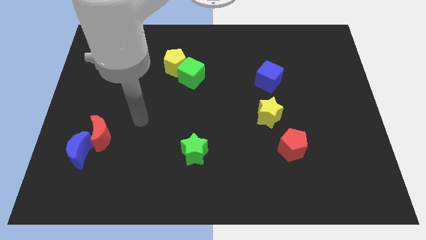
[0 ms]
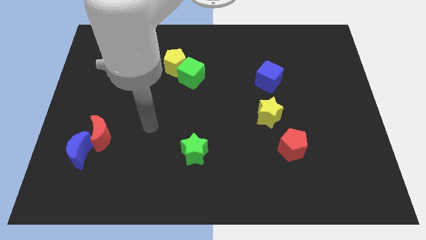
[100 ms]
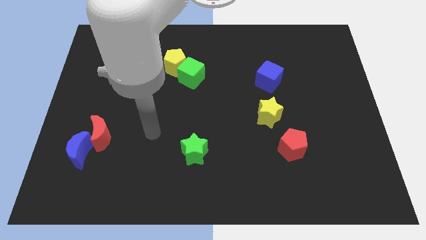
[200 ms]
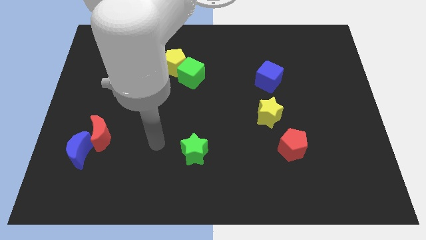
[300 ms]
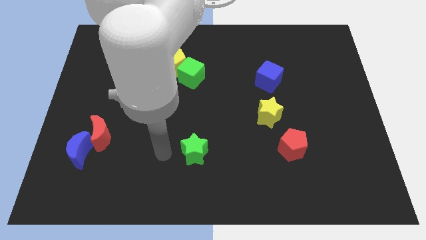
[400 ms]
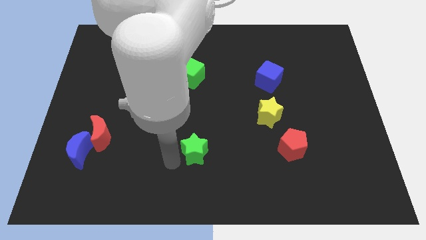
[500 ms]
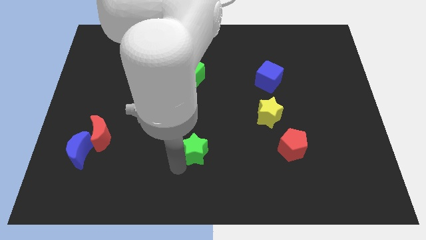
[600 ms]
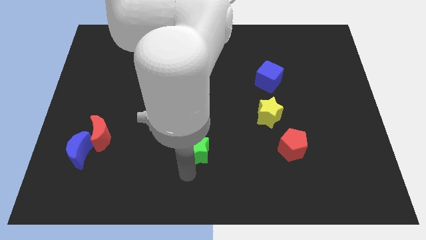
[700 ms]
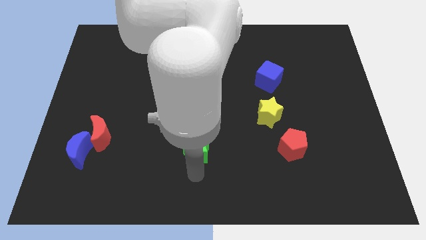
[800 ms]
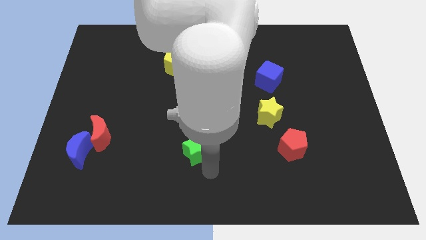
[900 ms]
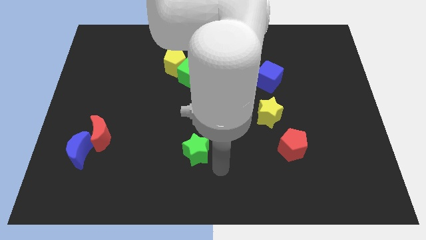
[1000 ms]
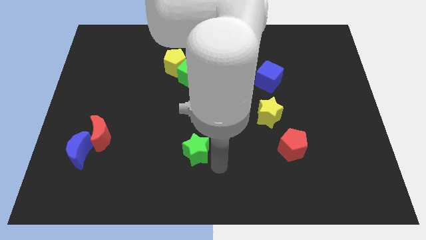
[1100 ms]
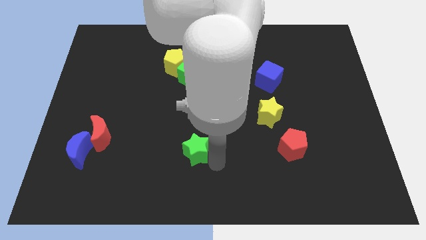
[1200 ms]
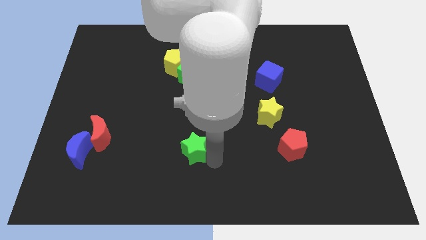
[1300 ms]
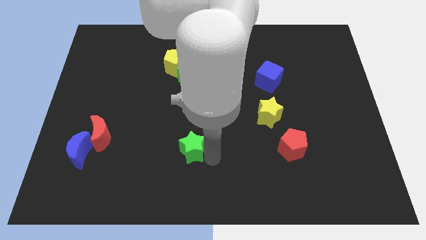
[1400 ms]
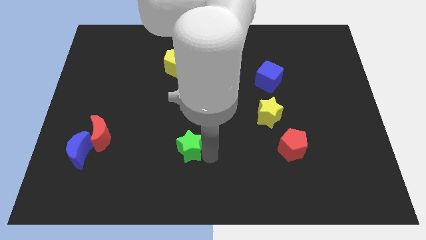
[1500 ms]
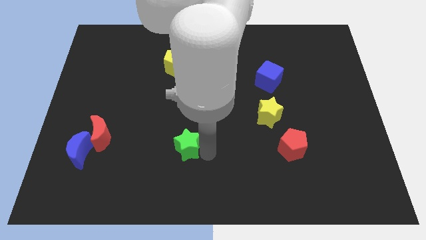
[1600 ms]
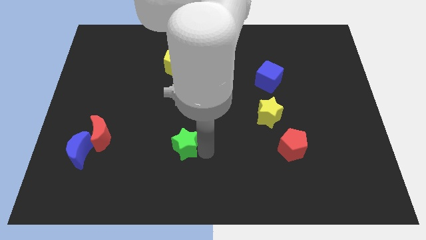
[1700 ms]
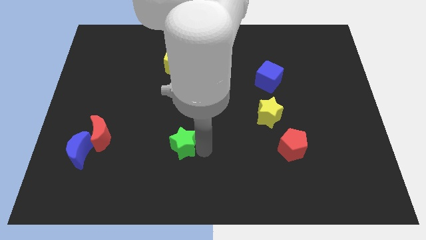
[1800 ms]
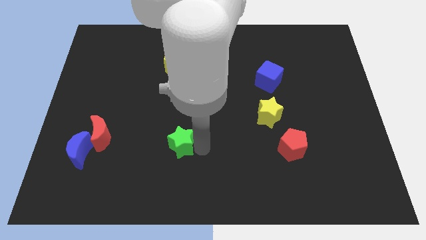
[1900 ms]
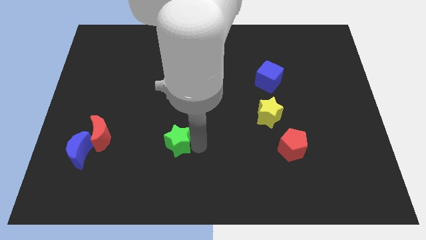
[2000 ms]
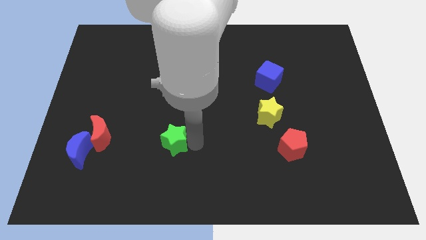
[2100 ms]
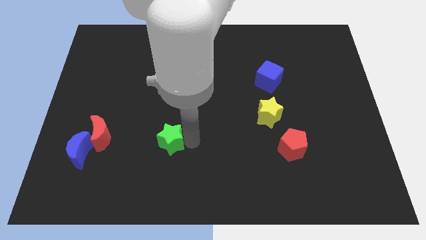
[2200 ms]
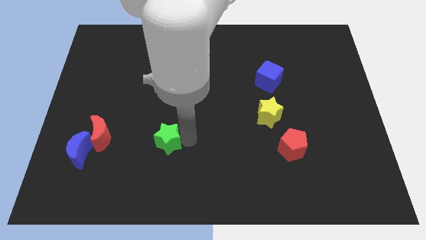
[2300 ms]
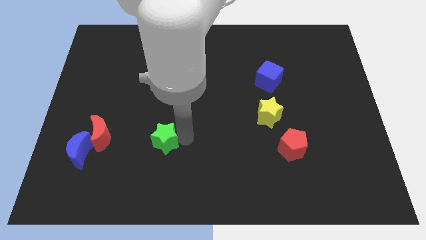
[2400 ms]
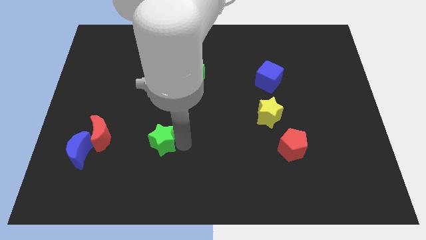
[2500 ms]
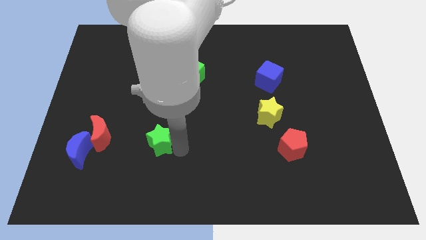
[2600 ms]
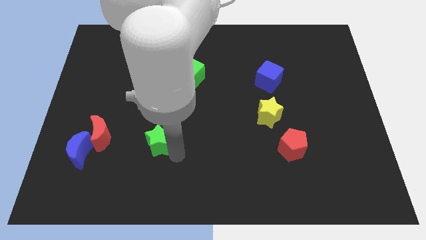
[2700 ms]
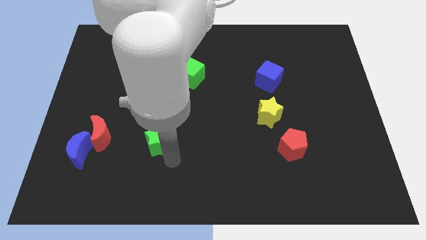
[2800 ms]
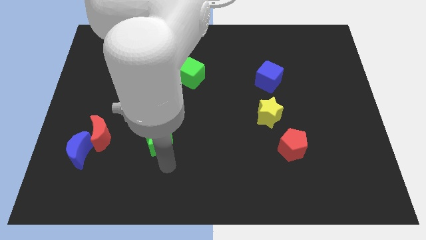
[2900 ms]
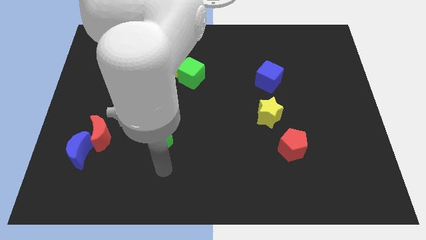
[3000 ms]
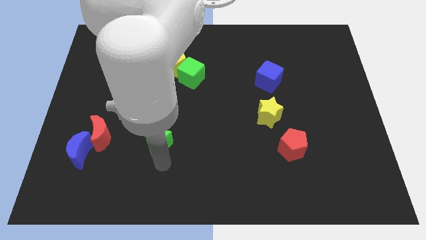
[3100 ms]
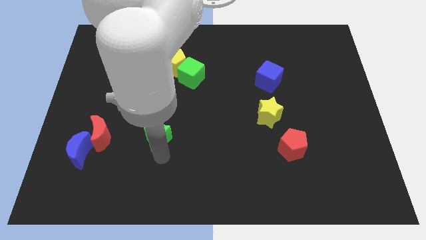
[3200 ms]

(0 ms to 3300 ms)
slide the green star a bit upwards and left

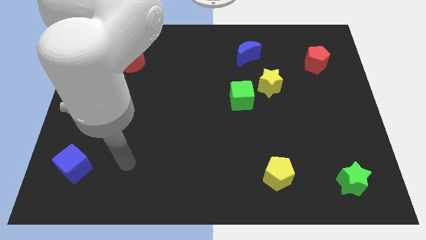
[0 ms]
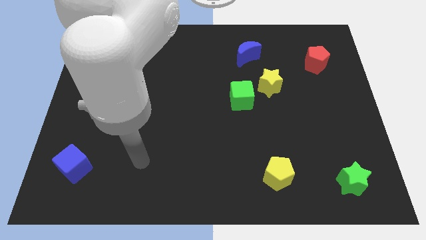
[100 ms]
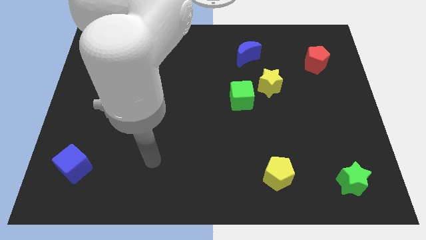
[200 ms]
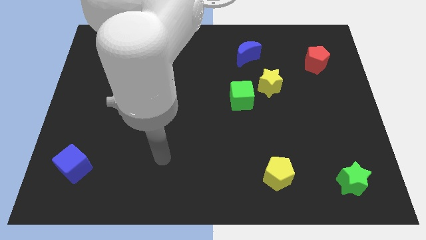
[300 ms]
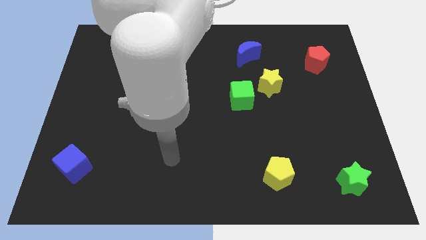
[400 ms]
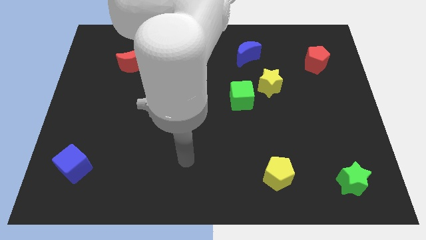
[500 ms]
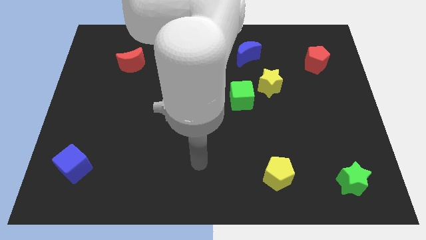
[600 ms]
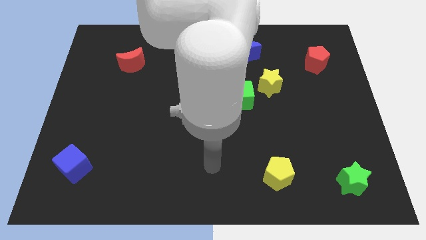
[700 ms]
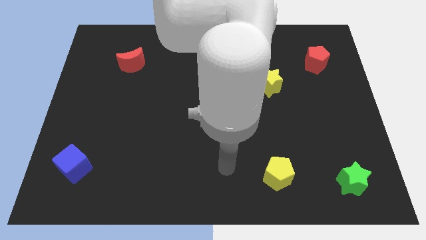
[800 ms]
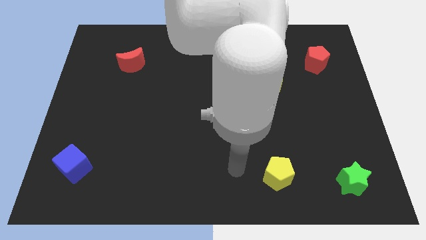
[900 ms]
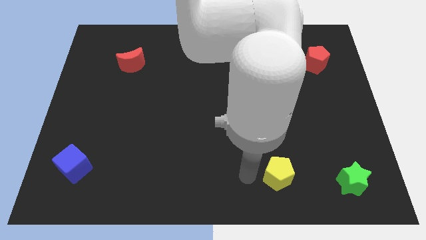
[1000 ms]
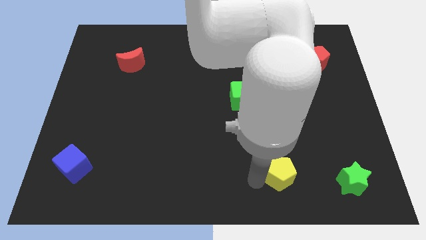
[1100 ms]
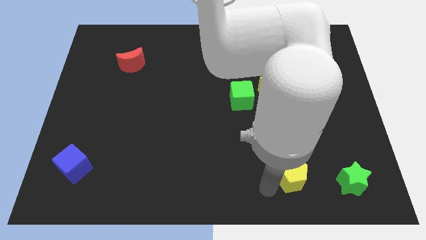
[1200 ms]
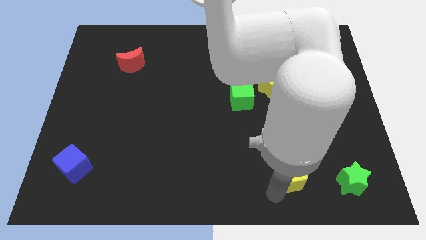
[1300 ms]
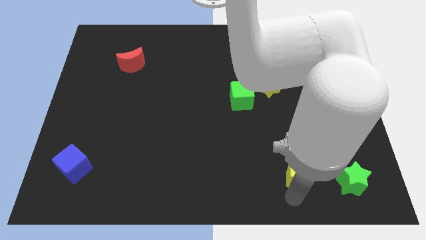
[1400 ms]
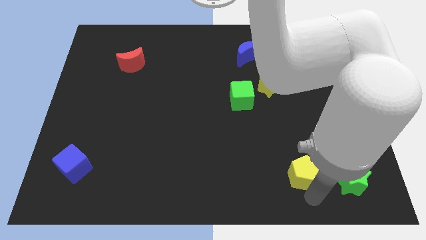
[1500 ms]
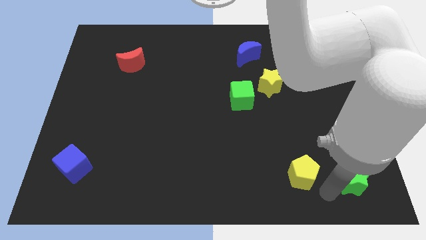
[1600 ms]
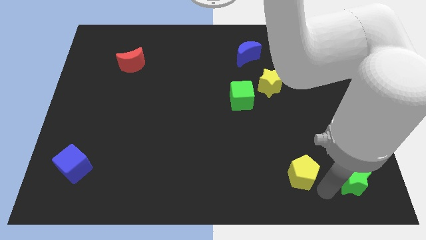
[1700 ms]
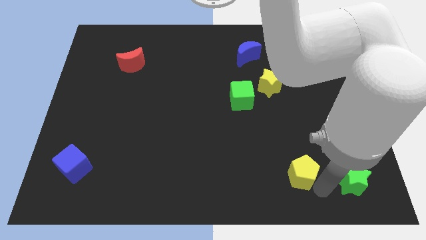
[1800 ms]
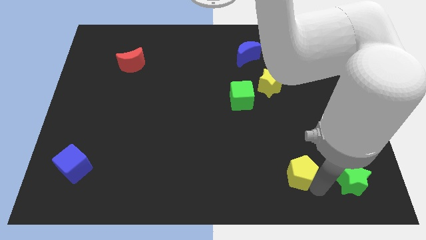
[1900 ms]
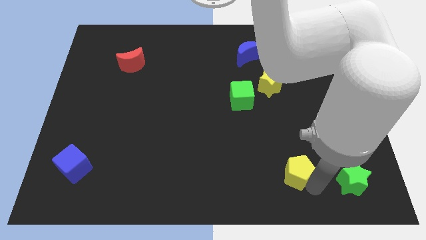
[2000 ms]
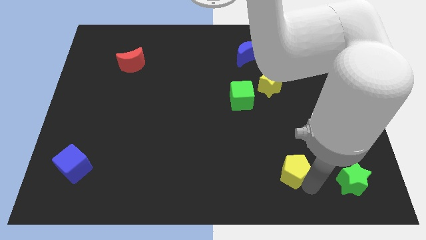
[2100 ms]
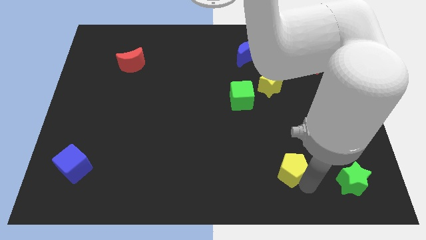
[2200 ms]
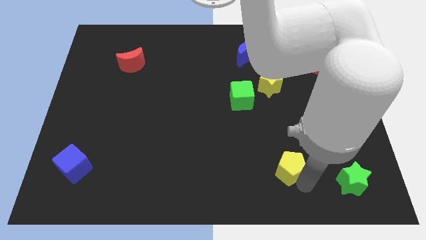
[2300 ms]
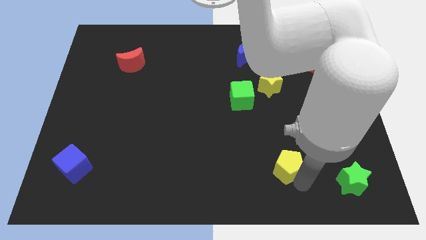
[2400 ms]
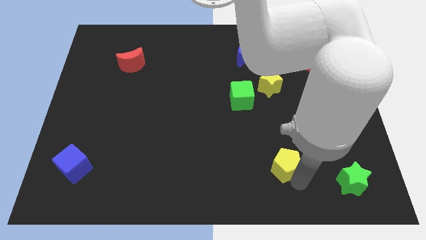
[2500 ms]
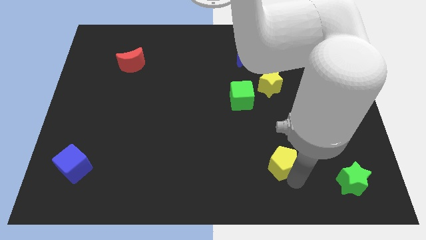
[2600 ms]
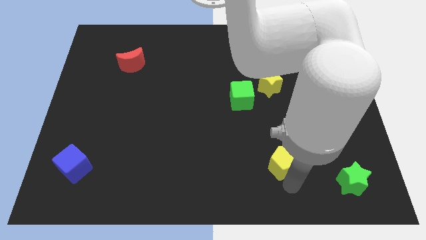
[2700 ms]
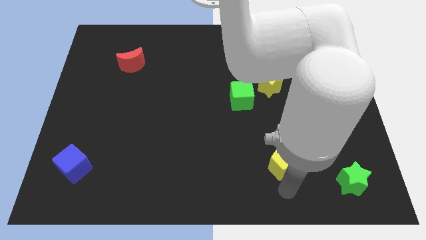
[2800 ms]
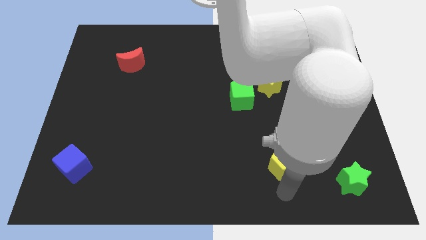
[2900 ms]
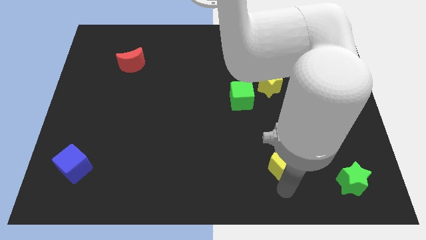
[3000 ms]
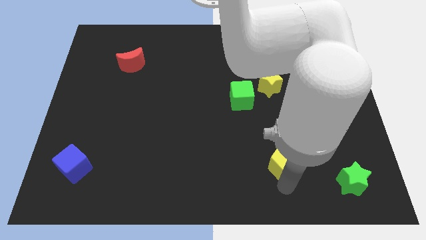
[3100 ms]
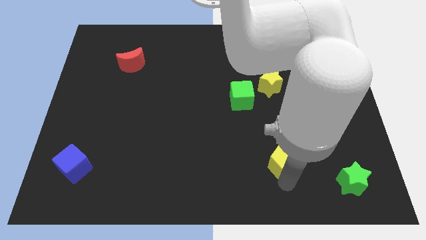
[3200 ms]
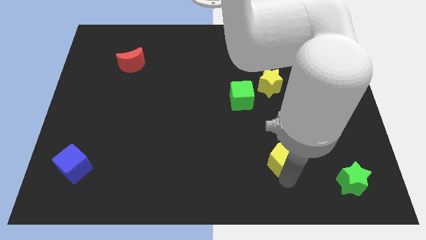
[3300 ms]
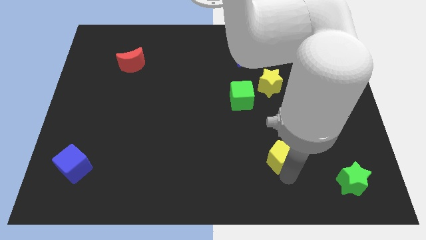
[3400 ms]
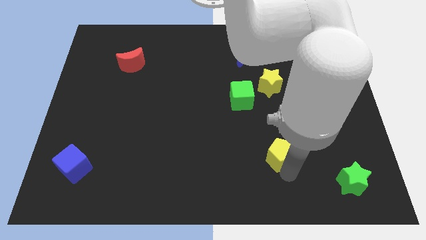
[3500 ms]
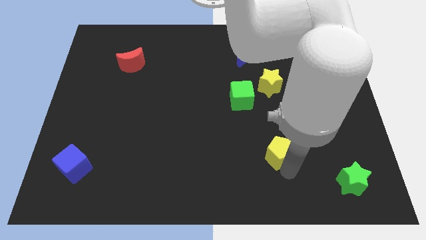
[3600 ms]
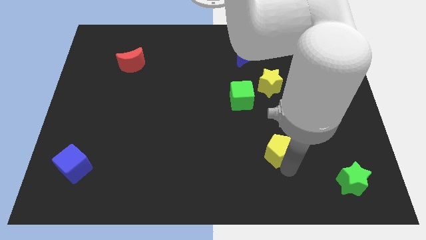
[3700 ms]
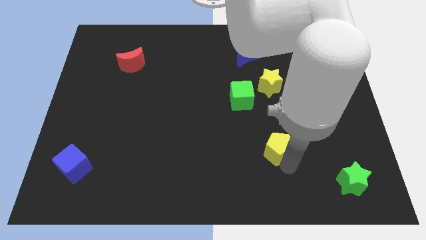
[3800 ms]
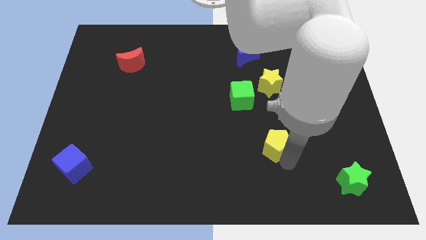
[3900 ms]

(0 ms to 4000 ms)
slide the yellow pentagon up slightly

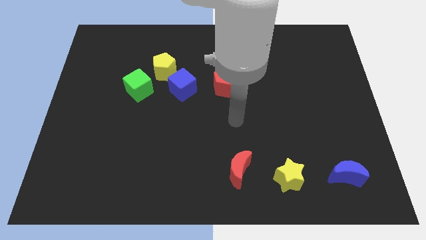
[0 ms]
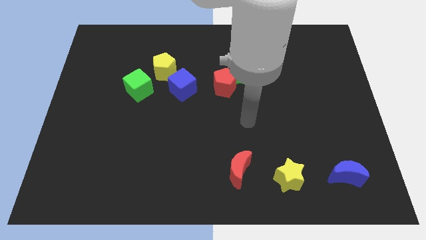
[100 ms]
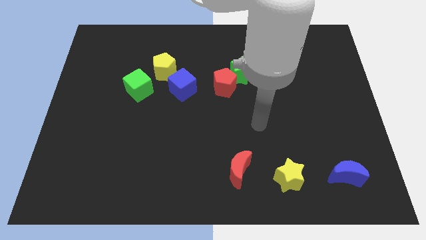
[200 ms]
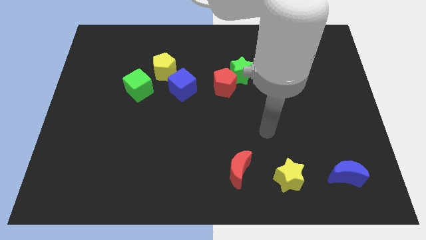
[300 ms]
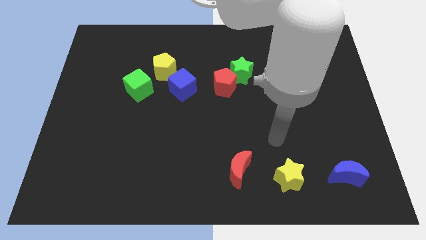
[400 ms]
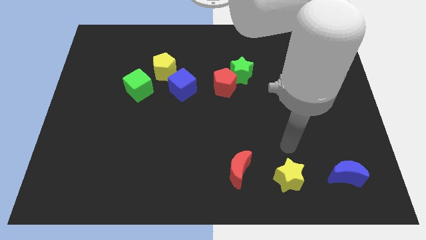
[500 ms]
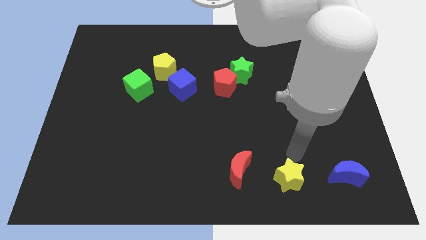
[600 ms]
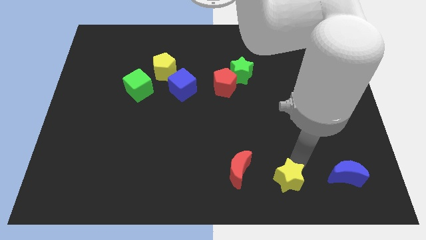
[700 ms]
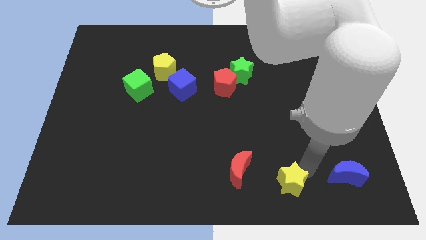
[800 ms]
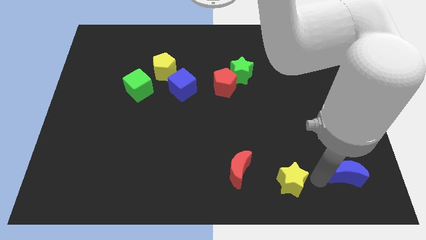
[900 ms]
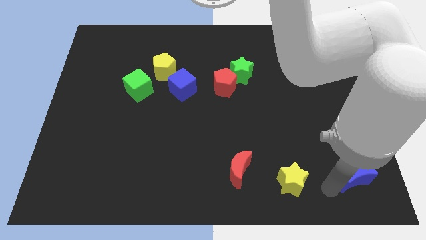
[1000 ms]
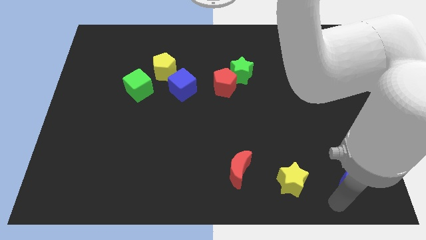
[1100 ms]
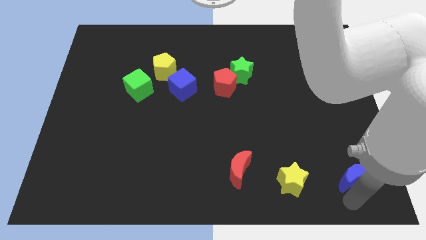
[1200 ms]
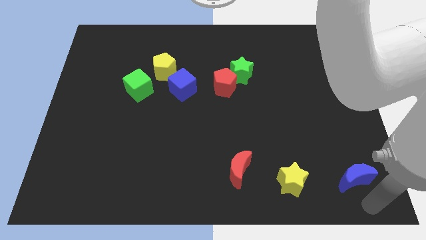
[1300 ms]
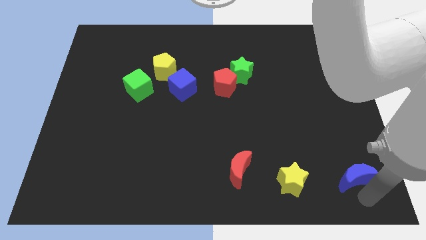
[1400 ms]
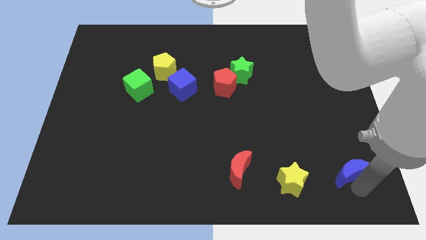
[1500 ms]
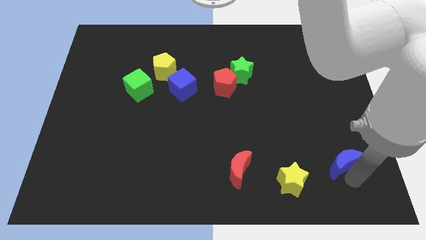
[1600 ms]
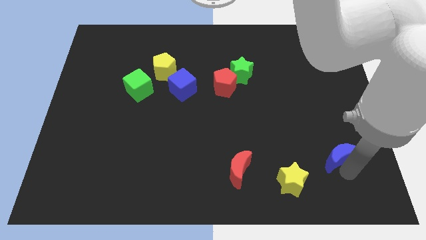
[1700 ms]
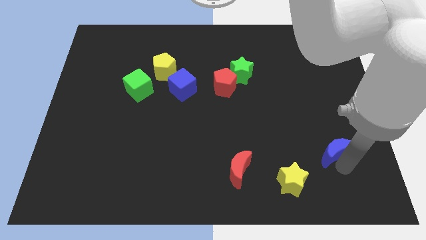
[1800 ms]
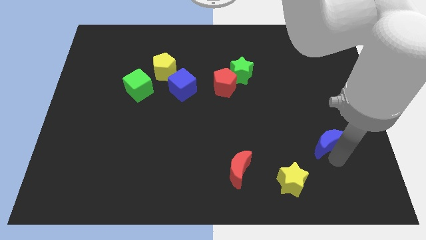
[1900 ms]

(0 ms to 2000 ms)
slide the blue moon upwards a little bit
